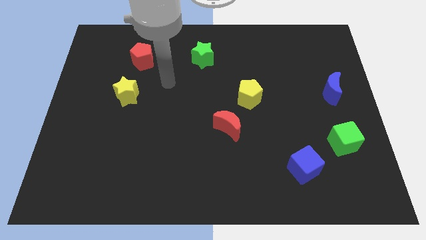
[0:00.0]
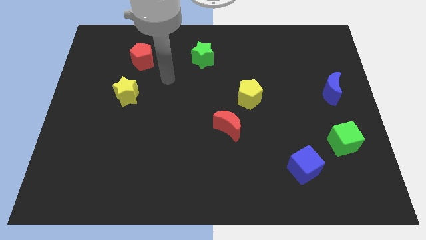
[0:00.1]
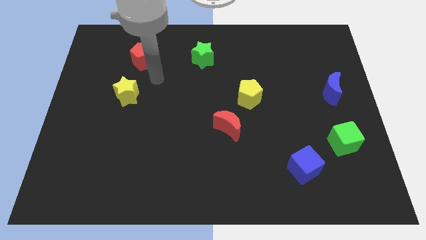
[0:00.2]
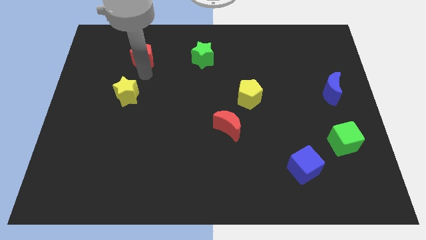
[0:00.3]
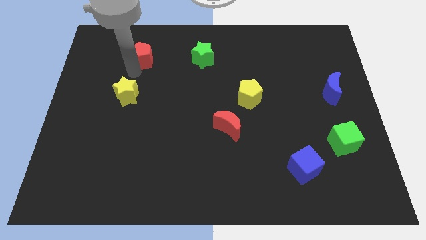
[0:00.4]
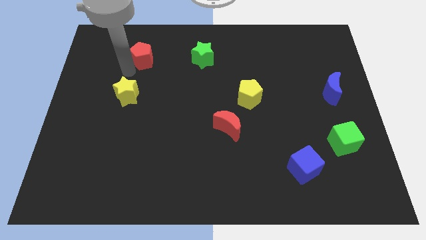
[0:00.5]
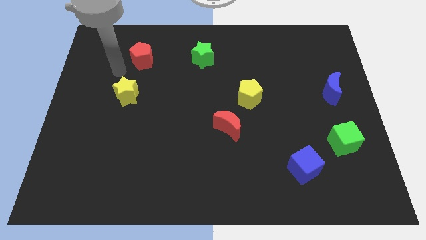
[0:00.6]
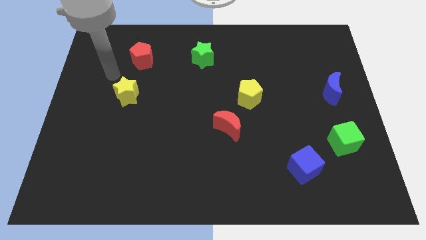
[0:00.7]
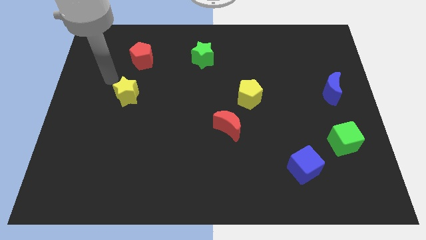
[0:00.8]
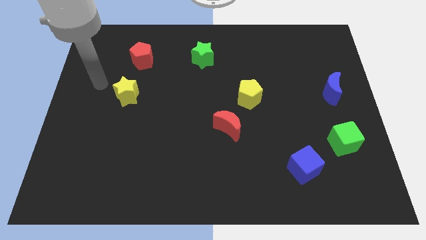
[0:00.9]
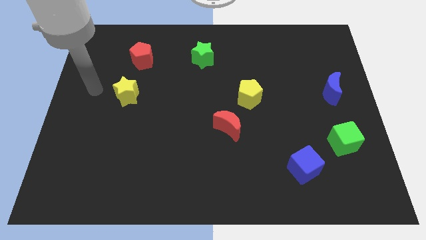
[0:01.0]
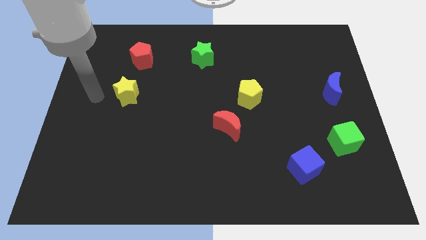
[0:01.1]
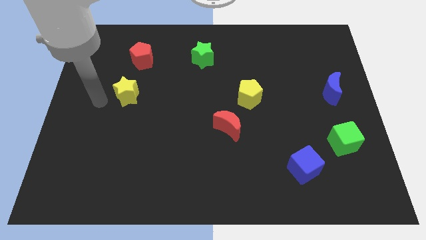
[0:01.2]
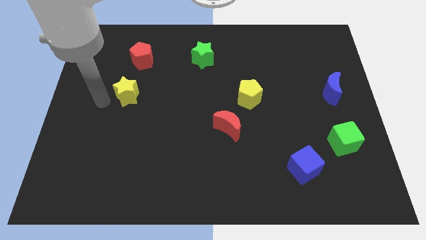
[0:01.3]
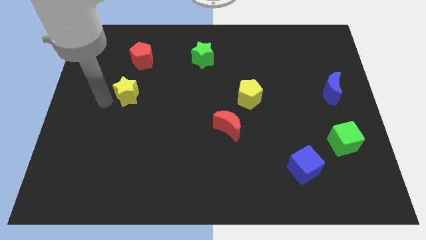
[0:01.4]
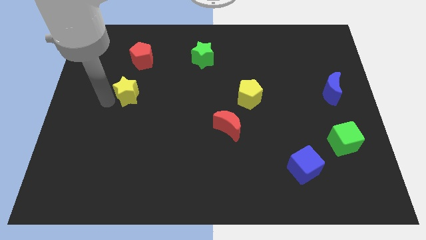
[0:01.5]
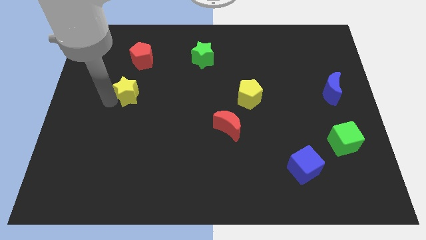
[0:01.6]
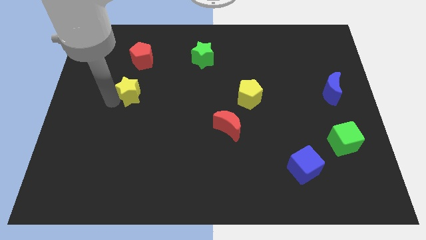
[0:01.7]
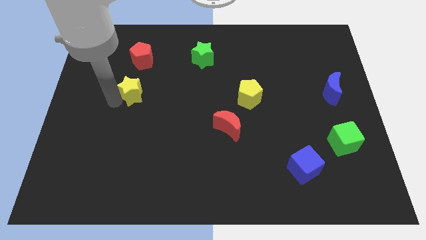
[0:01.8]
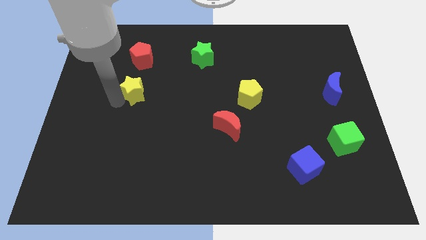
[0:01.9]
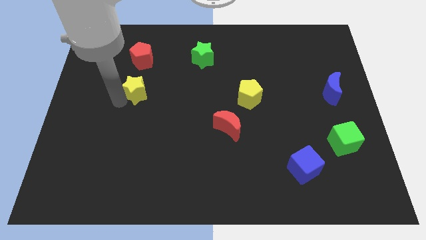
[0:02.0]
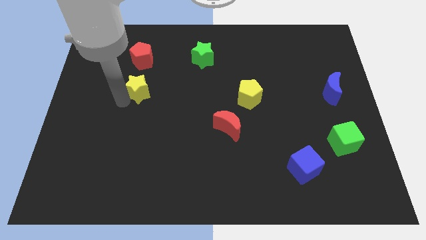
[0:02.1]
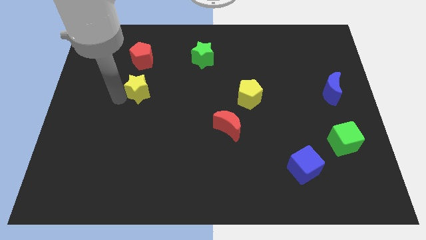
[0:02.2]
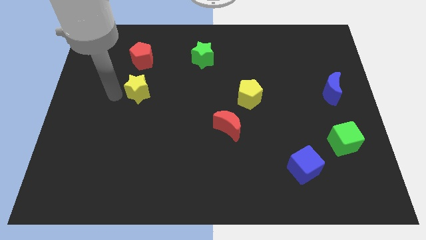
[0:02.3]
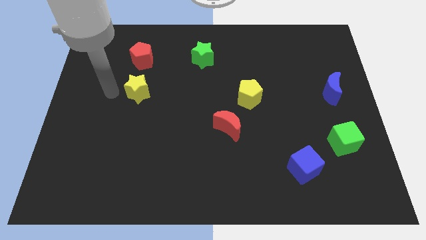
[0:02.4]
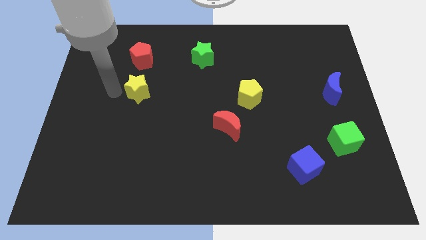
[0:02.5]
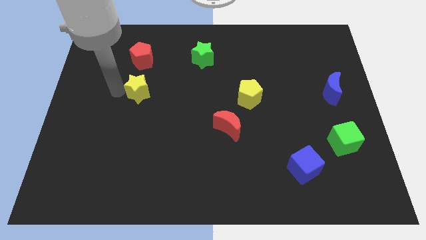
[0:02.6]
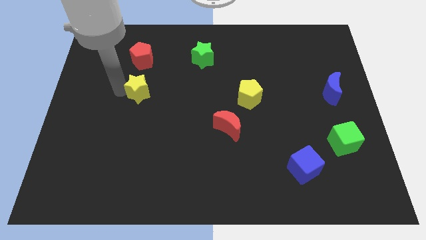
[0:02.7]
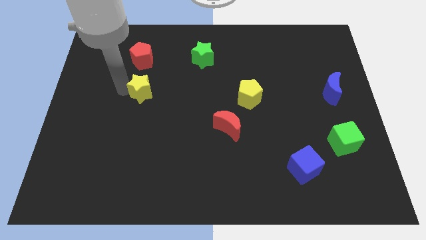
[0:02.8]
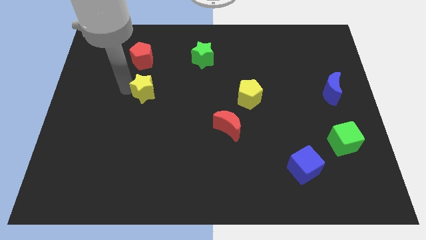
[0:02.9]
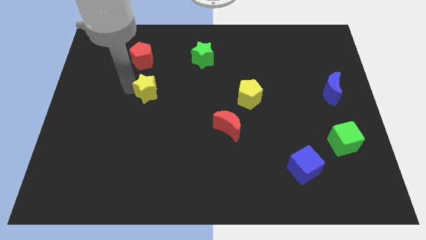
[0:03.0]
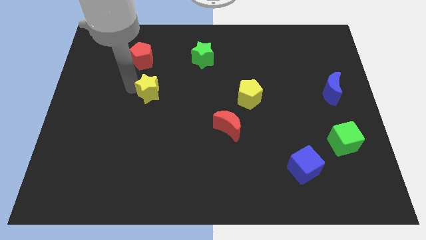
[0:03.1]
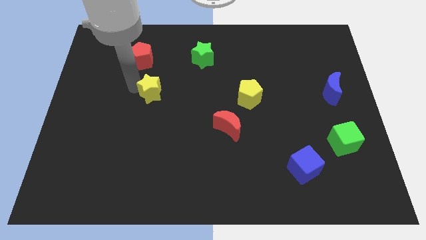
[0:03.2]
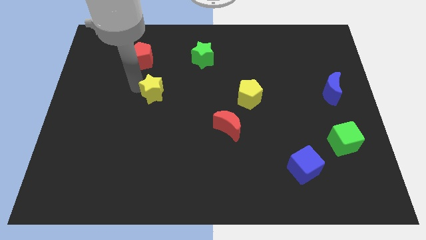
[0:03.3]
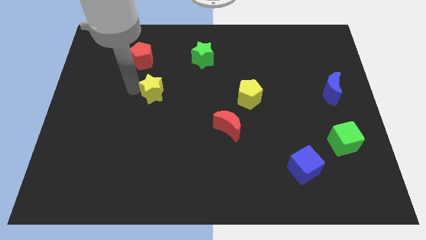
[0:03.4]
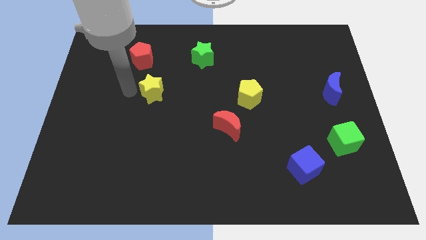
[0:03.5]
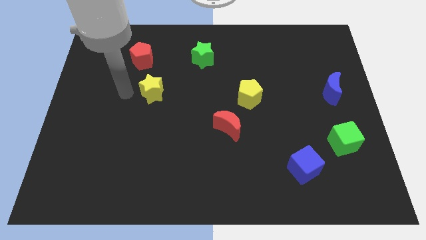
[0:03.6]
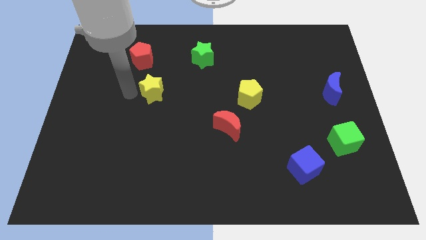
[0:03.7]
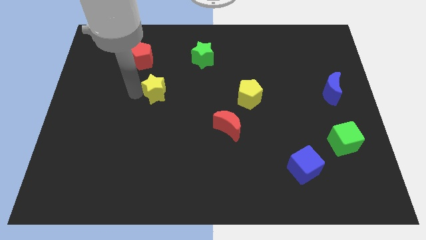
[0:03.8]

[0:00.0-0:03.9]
move the yellow star slightly to the right

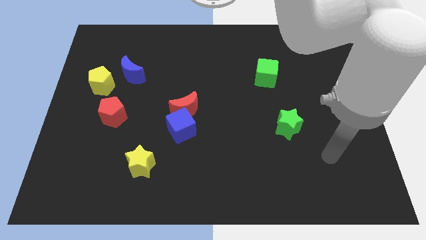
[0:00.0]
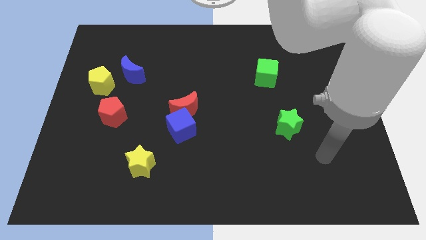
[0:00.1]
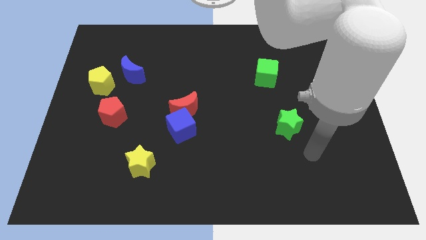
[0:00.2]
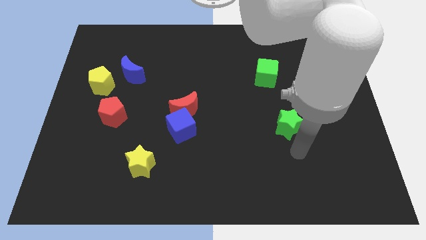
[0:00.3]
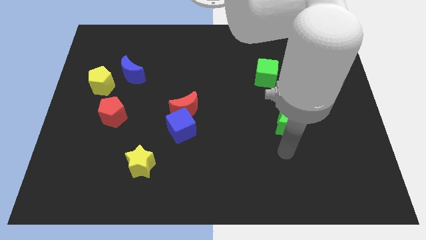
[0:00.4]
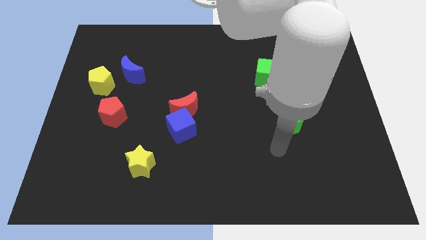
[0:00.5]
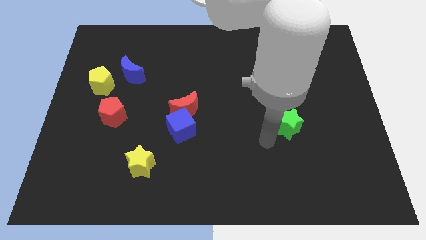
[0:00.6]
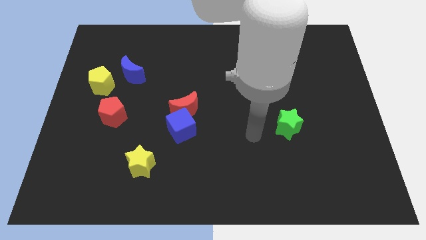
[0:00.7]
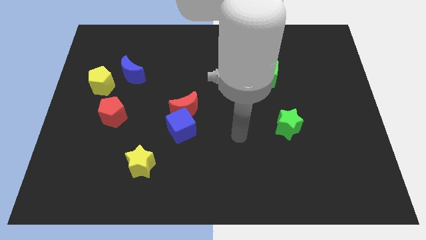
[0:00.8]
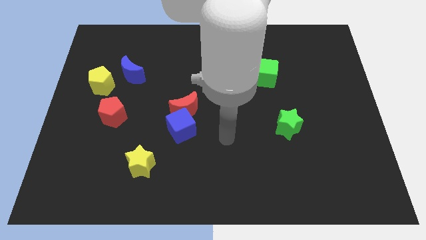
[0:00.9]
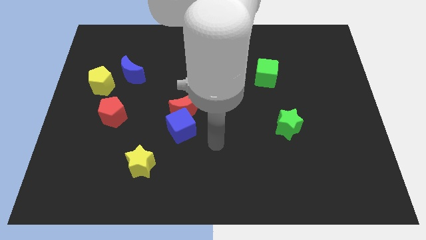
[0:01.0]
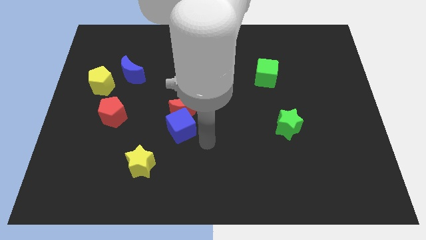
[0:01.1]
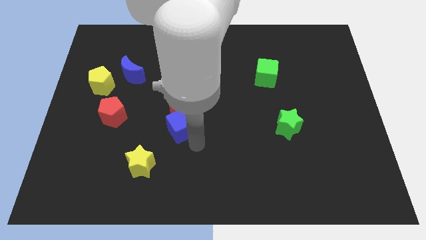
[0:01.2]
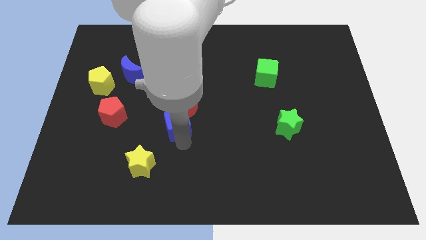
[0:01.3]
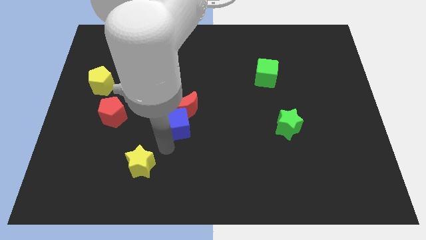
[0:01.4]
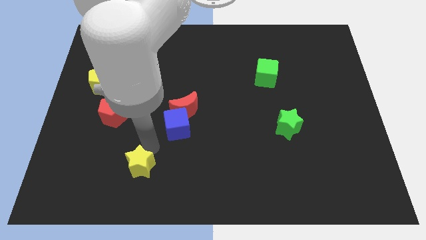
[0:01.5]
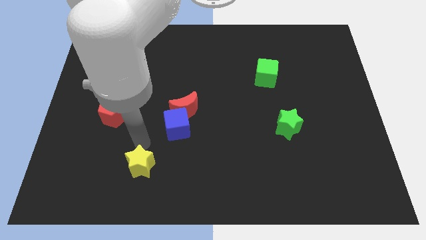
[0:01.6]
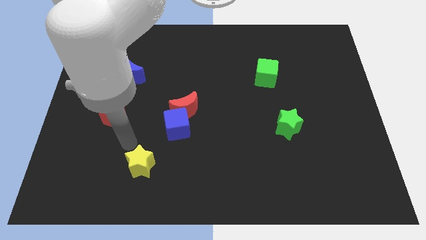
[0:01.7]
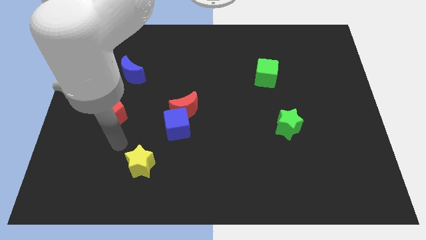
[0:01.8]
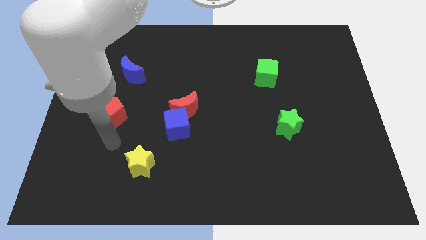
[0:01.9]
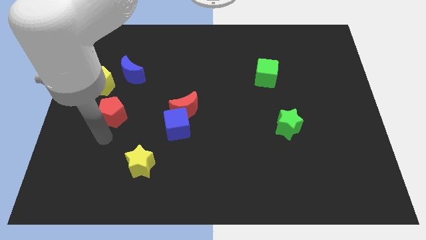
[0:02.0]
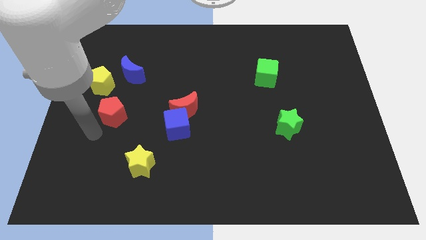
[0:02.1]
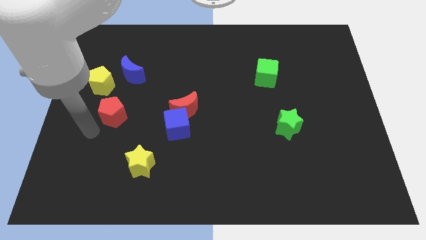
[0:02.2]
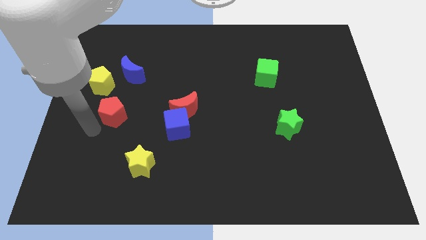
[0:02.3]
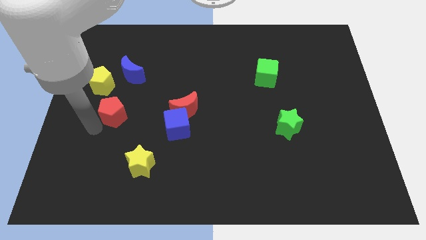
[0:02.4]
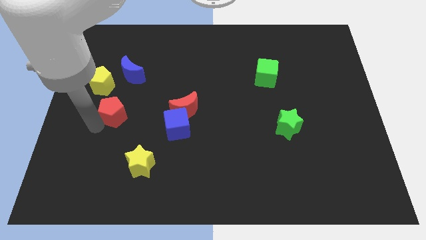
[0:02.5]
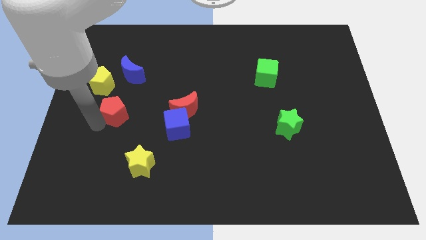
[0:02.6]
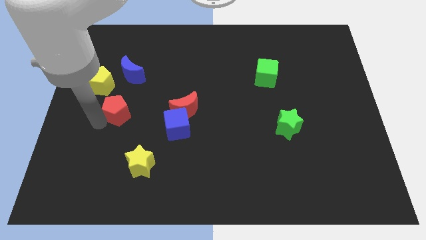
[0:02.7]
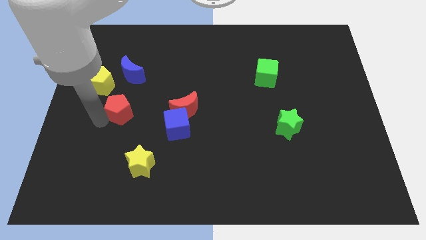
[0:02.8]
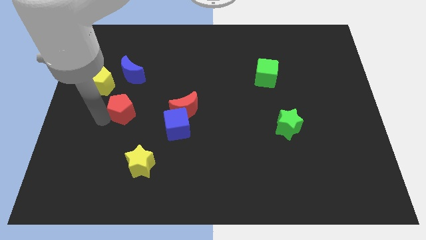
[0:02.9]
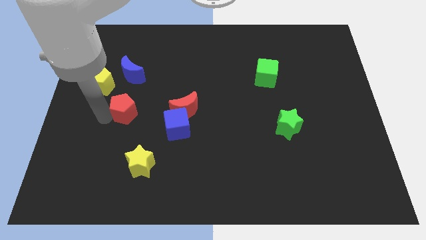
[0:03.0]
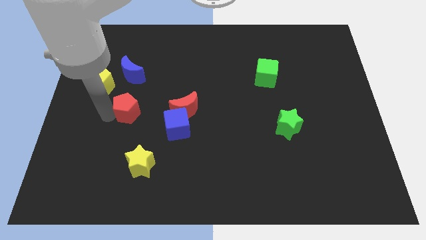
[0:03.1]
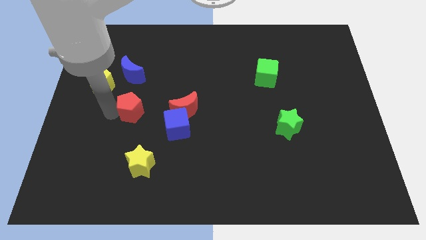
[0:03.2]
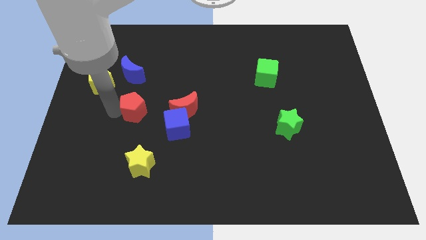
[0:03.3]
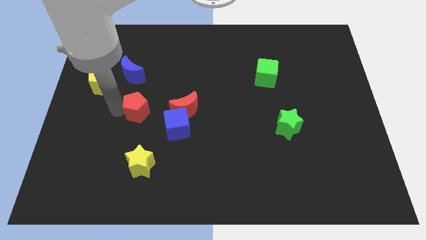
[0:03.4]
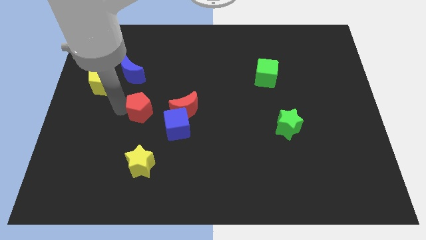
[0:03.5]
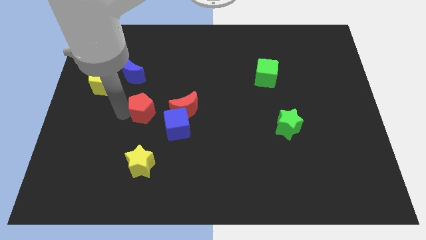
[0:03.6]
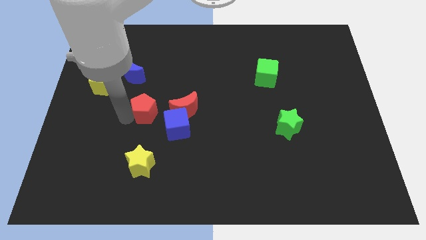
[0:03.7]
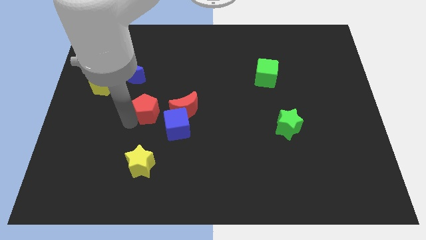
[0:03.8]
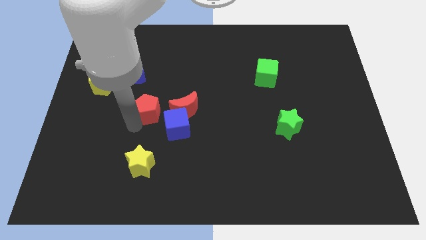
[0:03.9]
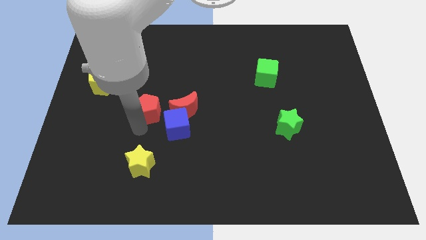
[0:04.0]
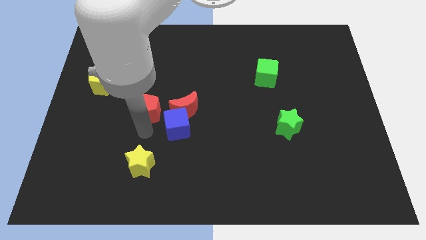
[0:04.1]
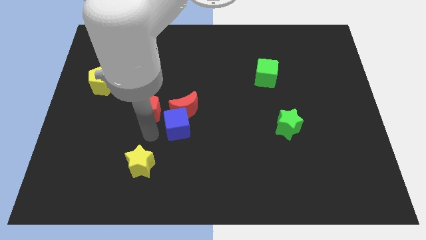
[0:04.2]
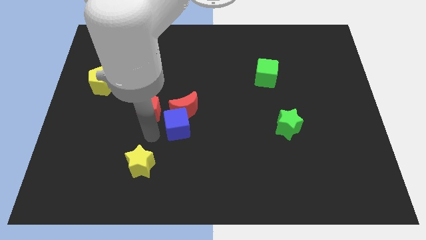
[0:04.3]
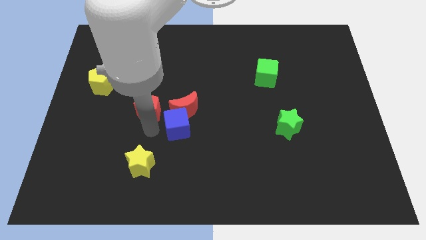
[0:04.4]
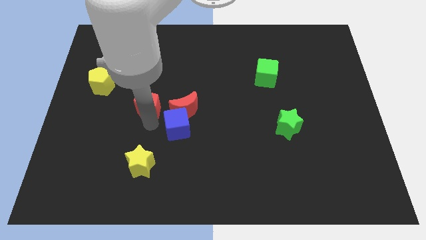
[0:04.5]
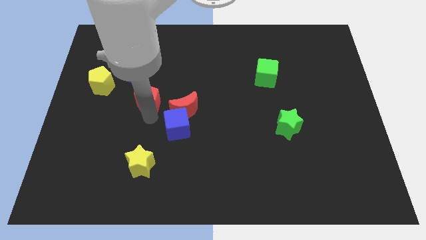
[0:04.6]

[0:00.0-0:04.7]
move the red pentagon diagonally upwards and to the right somewhat
